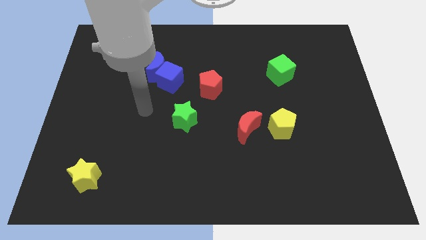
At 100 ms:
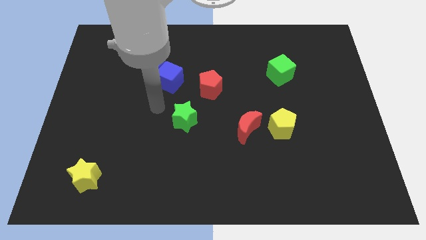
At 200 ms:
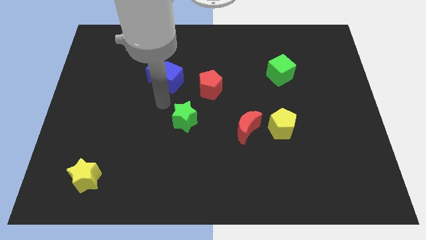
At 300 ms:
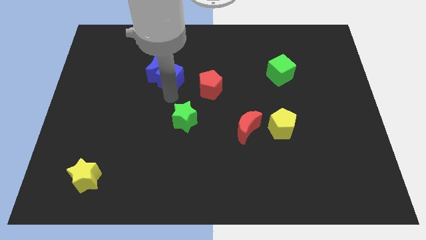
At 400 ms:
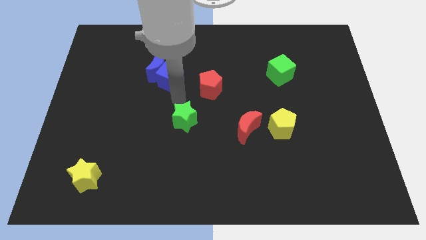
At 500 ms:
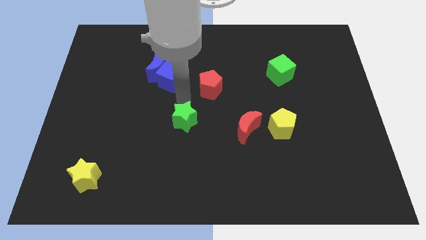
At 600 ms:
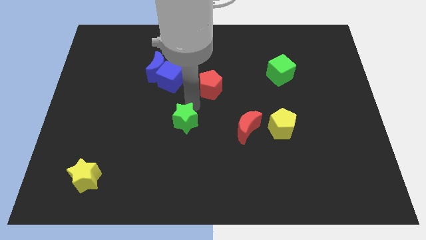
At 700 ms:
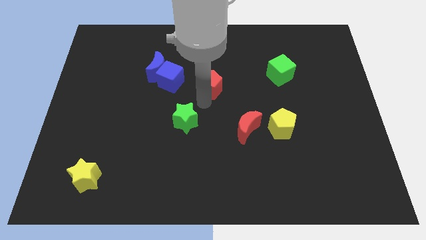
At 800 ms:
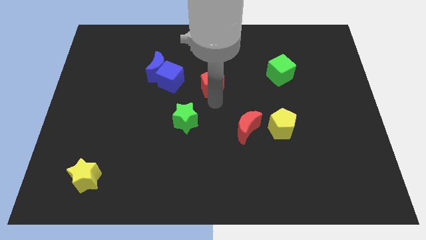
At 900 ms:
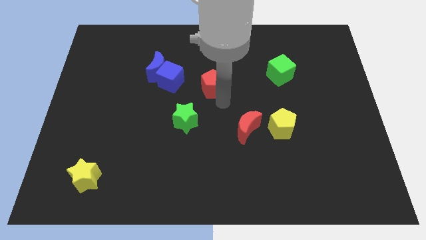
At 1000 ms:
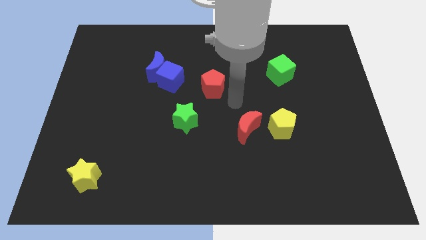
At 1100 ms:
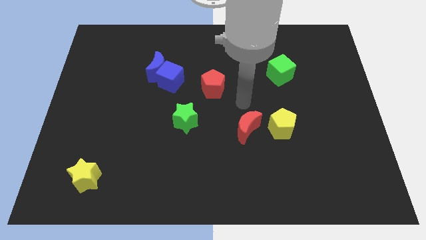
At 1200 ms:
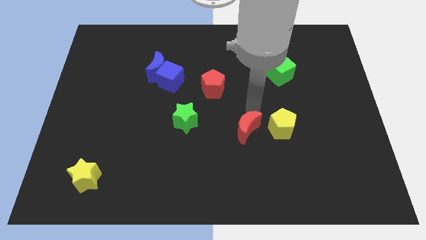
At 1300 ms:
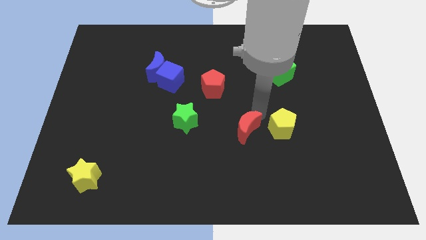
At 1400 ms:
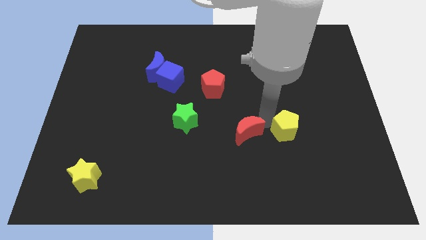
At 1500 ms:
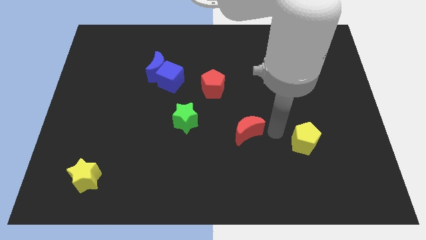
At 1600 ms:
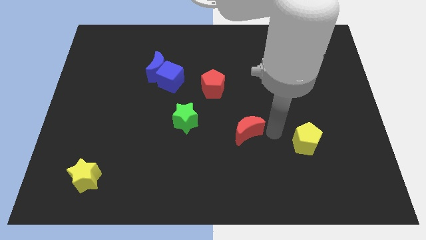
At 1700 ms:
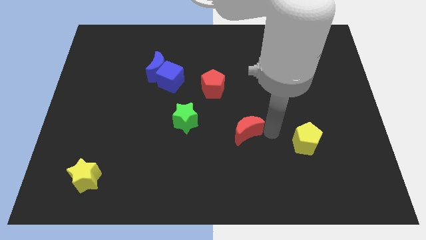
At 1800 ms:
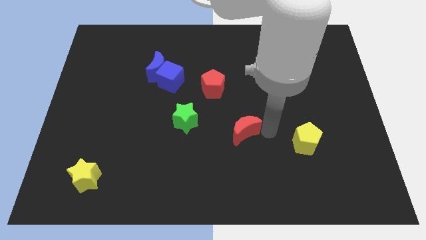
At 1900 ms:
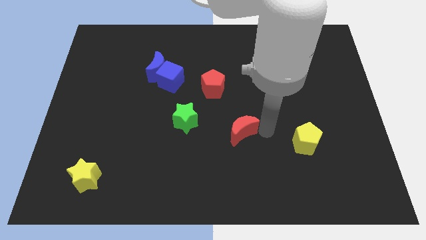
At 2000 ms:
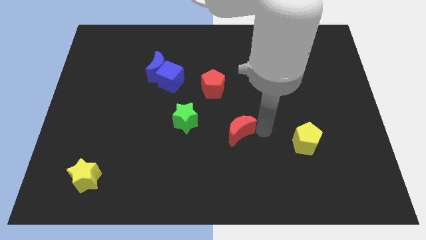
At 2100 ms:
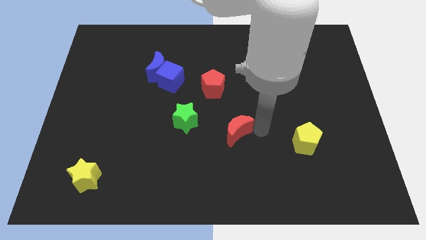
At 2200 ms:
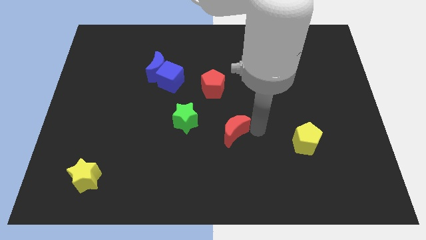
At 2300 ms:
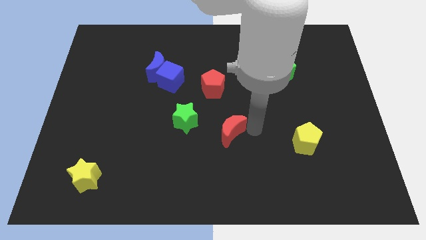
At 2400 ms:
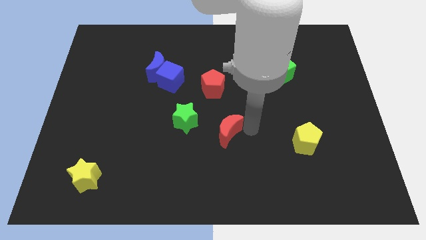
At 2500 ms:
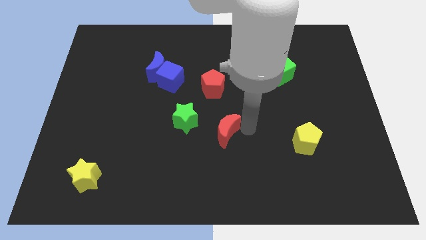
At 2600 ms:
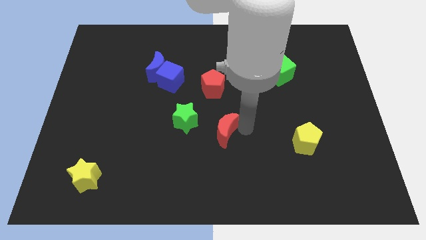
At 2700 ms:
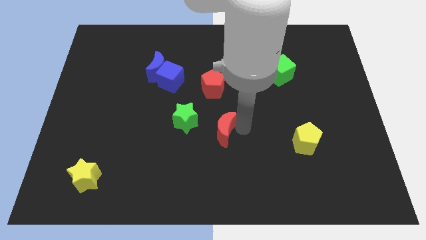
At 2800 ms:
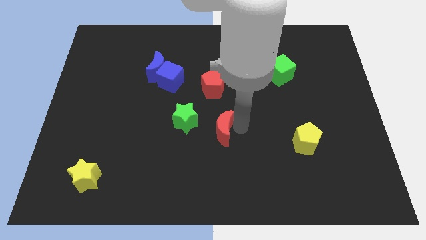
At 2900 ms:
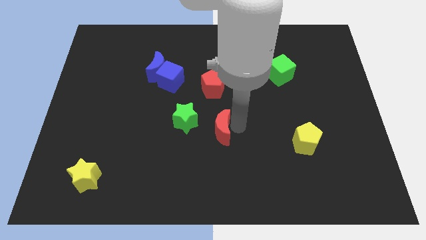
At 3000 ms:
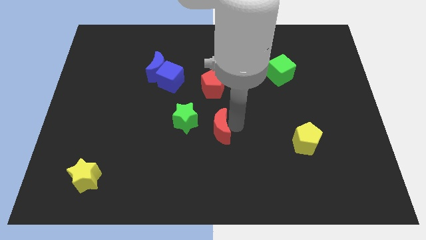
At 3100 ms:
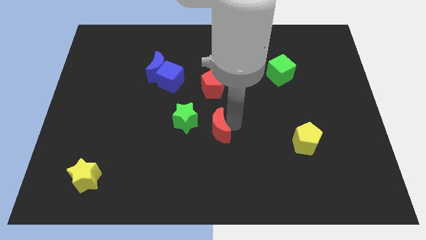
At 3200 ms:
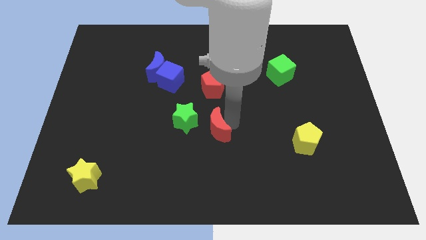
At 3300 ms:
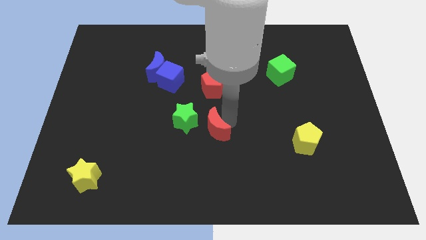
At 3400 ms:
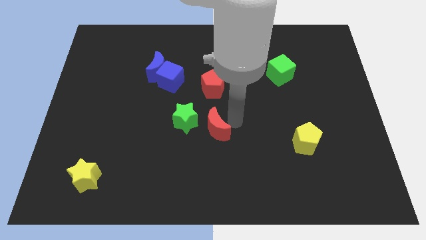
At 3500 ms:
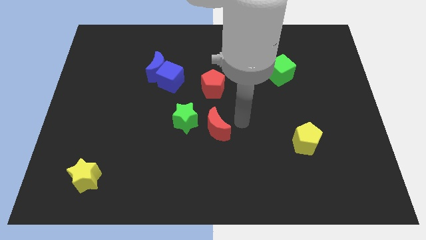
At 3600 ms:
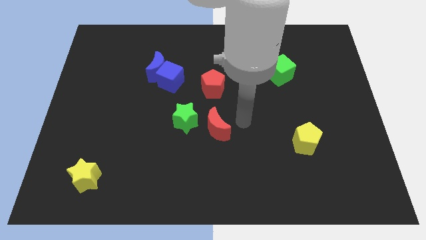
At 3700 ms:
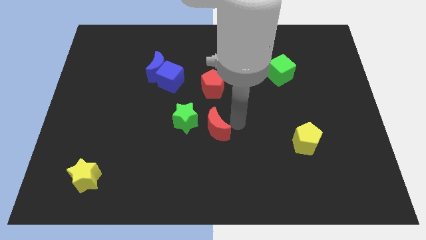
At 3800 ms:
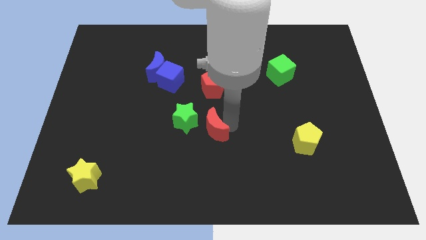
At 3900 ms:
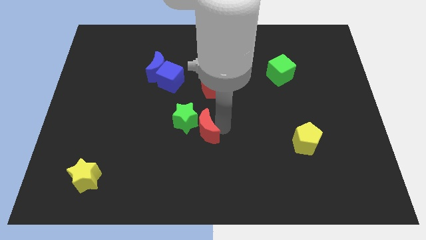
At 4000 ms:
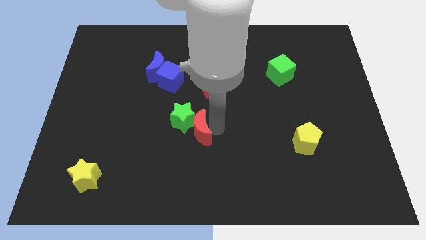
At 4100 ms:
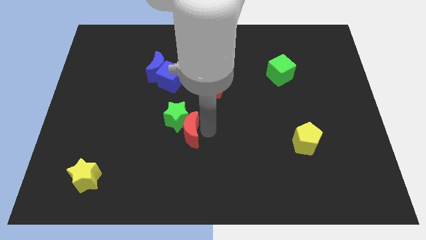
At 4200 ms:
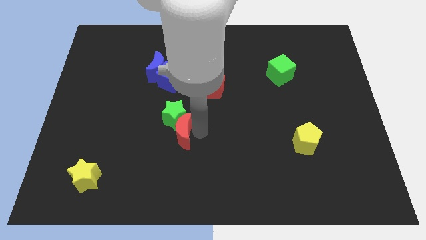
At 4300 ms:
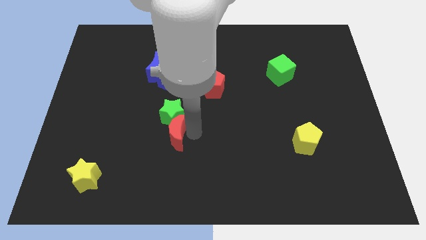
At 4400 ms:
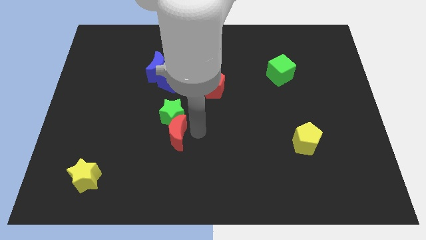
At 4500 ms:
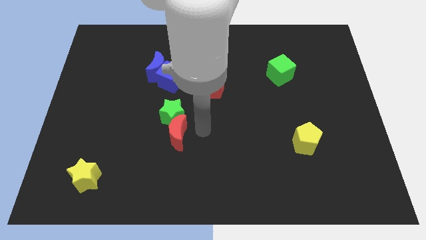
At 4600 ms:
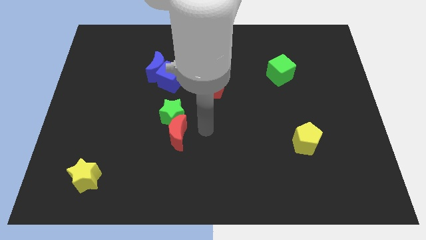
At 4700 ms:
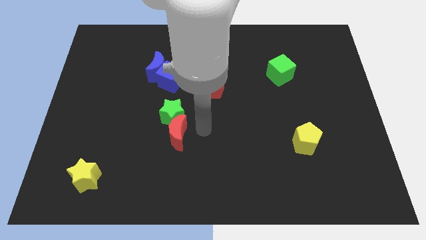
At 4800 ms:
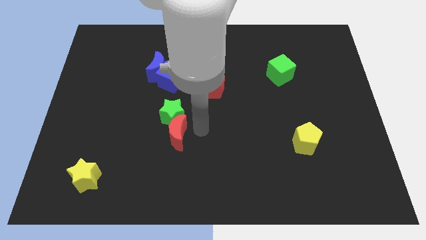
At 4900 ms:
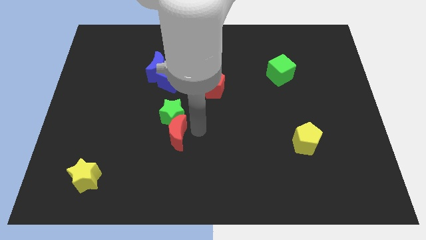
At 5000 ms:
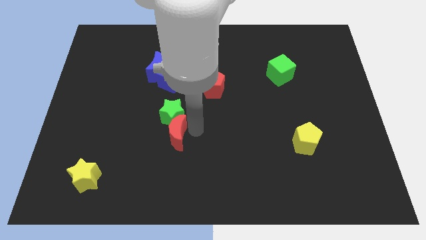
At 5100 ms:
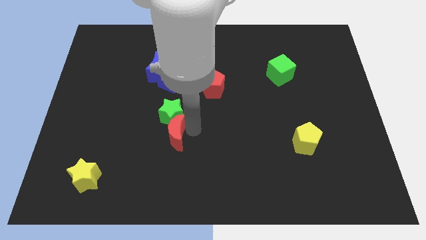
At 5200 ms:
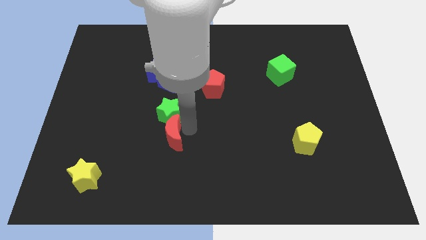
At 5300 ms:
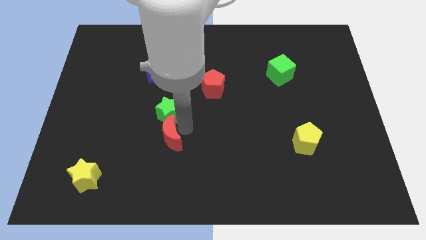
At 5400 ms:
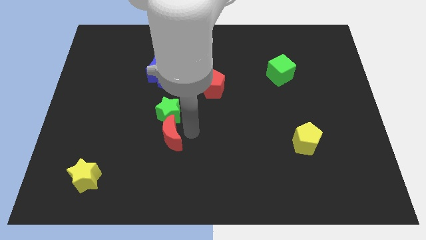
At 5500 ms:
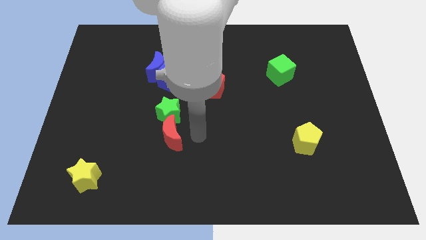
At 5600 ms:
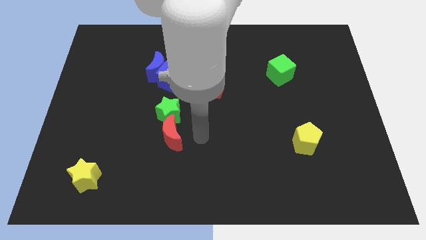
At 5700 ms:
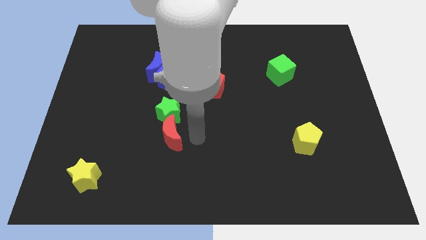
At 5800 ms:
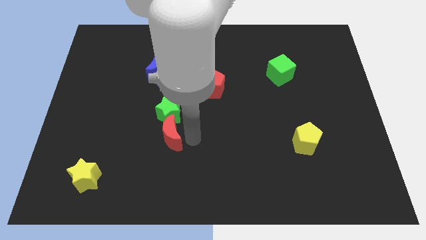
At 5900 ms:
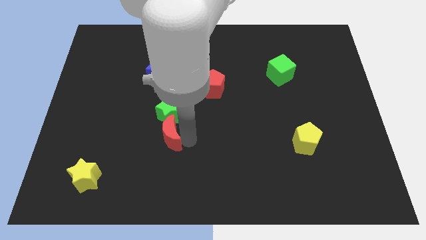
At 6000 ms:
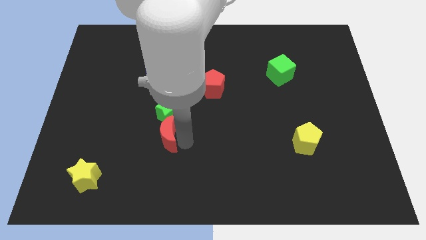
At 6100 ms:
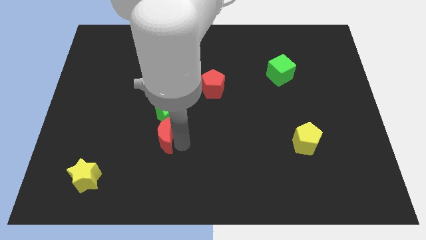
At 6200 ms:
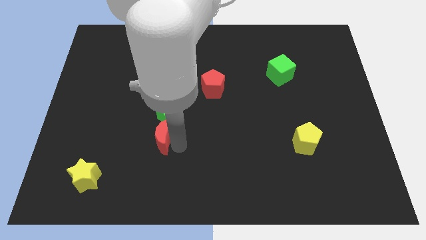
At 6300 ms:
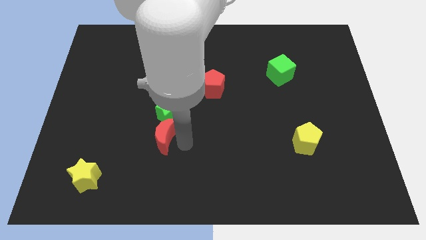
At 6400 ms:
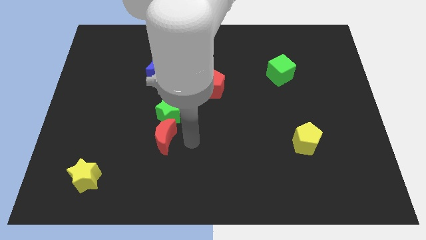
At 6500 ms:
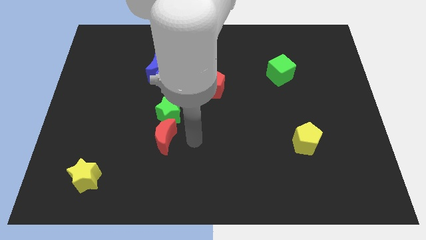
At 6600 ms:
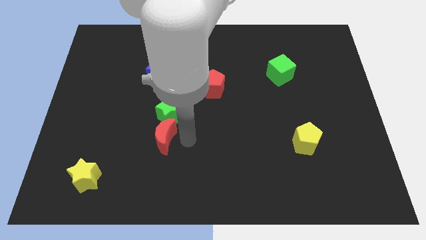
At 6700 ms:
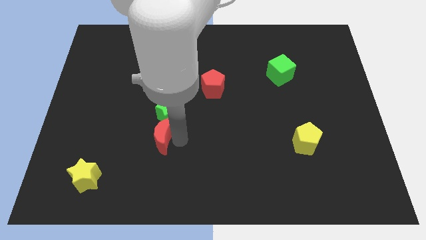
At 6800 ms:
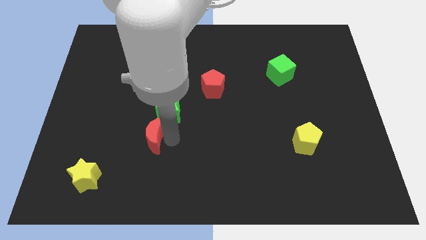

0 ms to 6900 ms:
push the red moon to the left

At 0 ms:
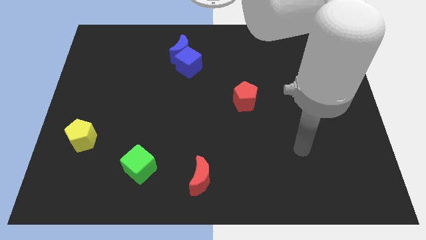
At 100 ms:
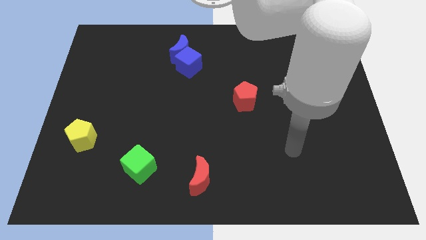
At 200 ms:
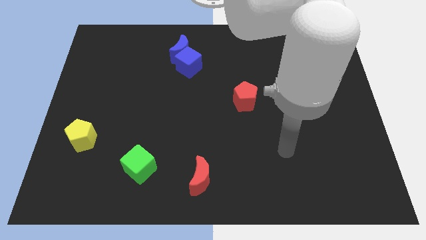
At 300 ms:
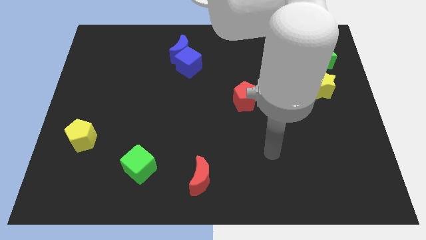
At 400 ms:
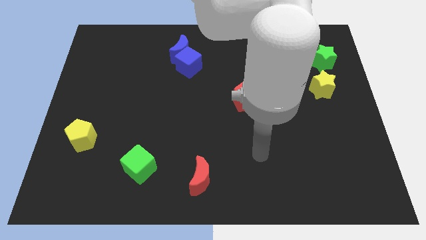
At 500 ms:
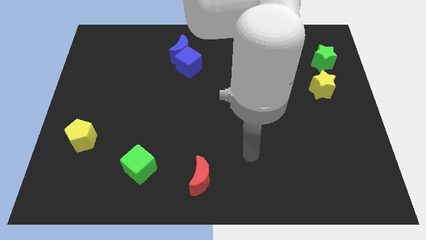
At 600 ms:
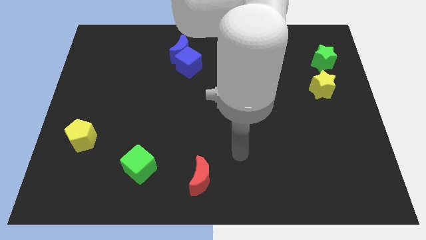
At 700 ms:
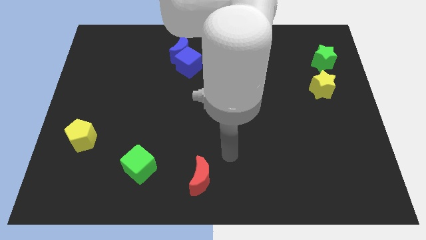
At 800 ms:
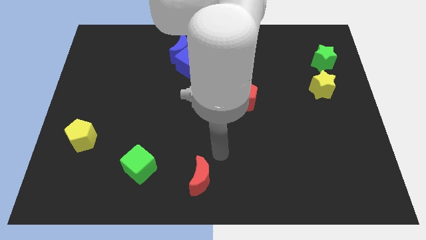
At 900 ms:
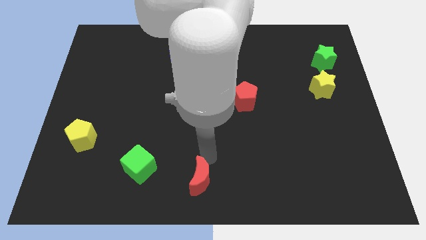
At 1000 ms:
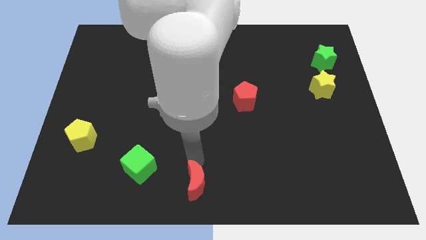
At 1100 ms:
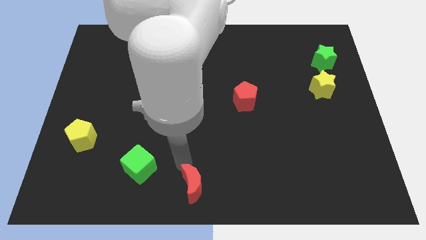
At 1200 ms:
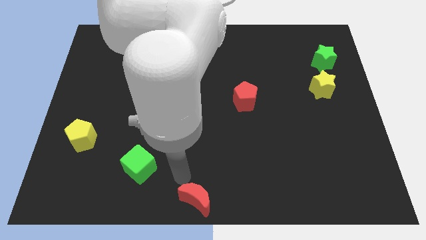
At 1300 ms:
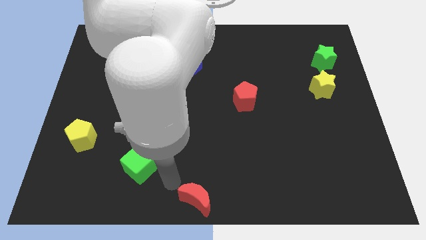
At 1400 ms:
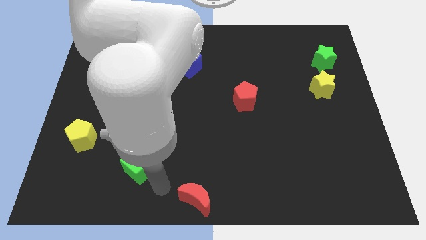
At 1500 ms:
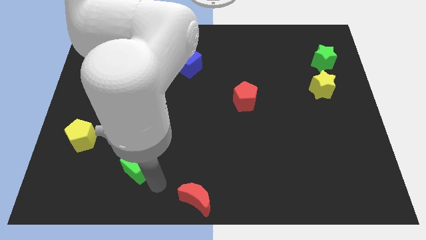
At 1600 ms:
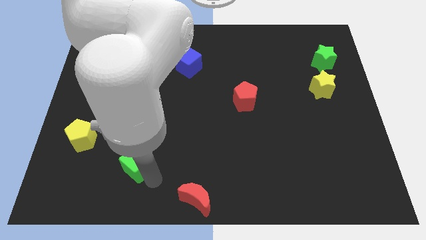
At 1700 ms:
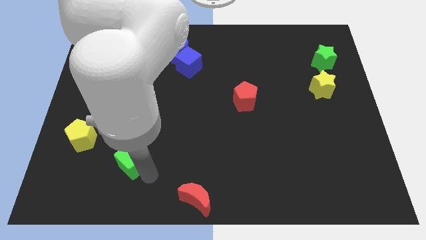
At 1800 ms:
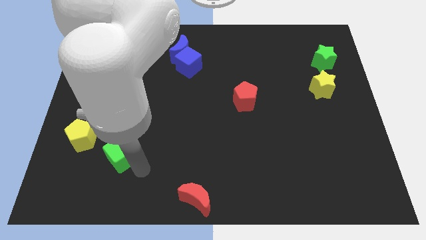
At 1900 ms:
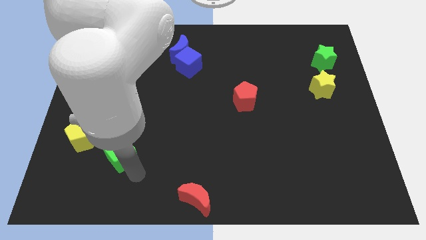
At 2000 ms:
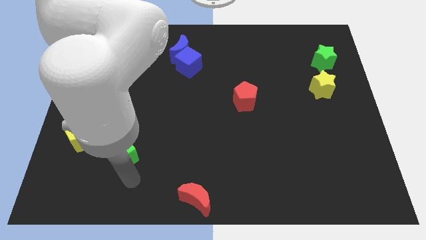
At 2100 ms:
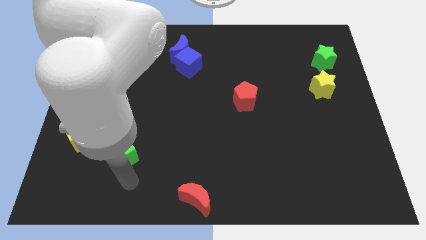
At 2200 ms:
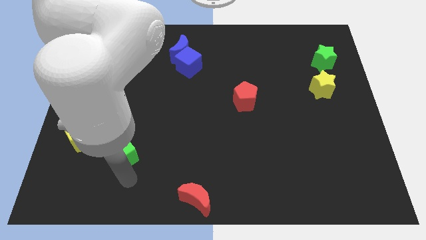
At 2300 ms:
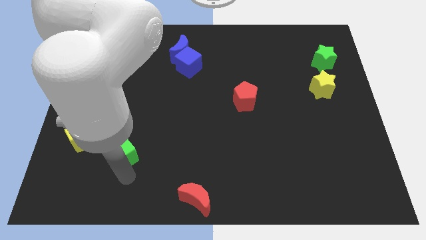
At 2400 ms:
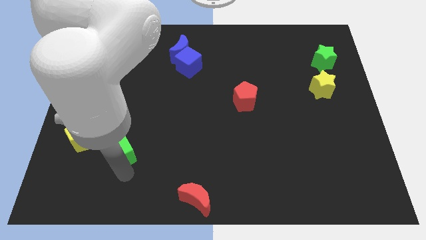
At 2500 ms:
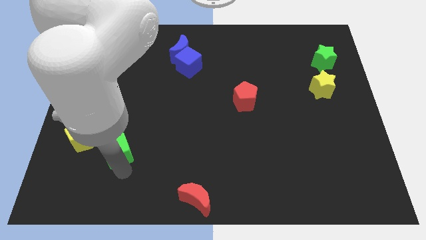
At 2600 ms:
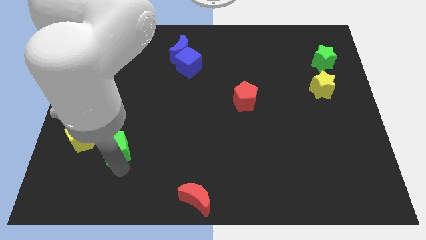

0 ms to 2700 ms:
slightly push the green cube up and left diagonally
